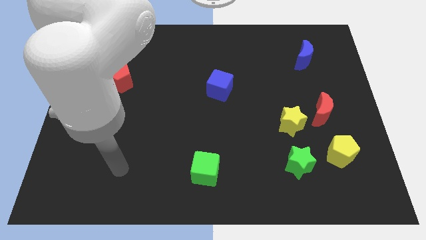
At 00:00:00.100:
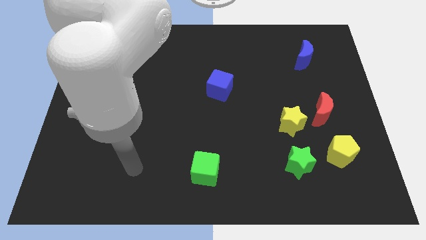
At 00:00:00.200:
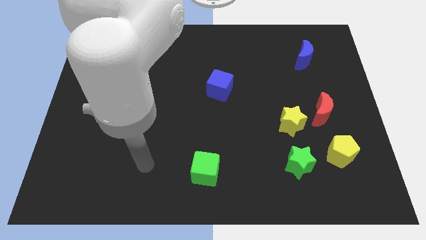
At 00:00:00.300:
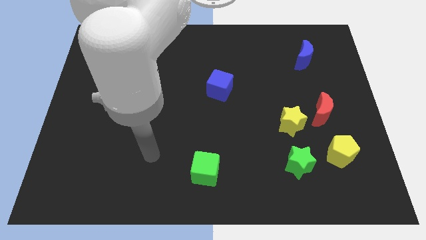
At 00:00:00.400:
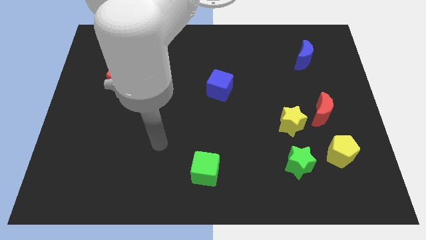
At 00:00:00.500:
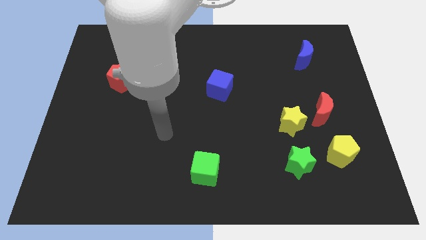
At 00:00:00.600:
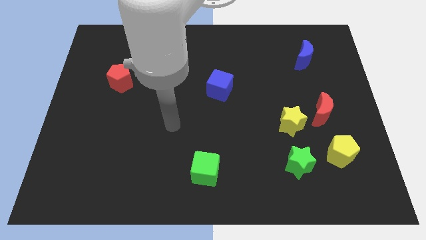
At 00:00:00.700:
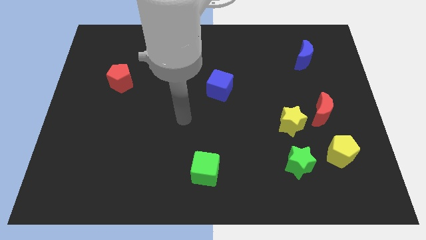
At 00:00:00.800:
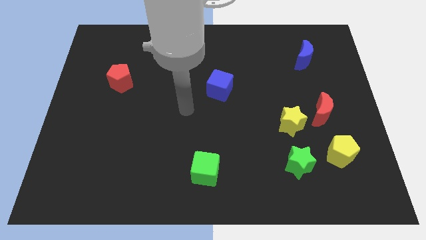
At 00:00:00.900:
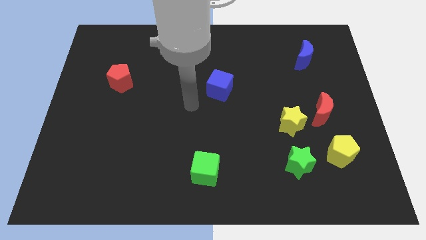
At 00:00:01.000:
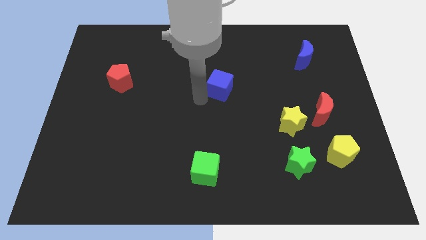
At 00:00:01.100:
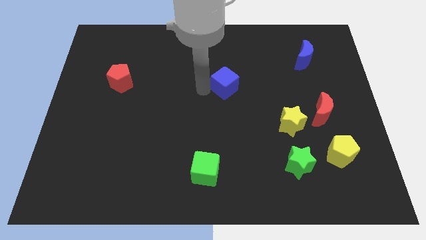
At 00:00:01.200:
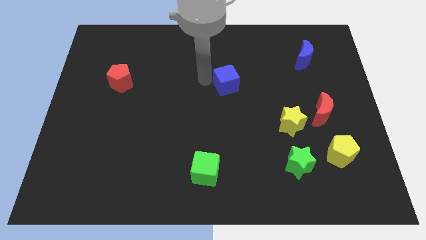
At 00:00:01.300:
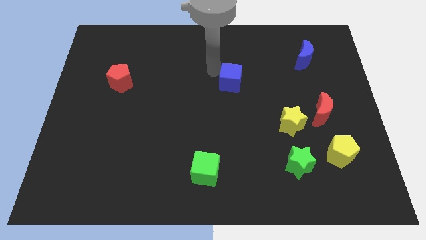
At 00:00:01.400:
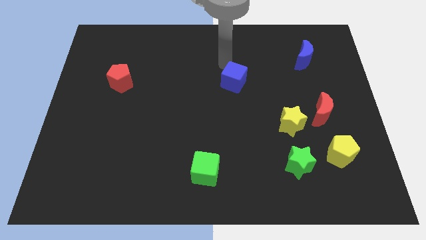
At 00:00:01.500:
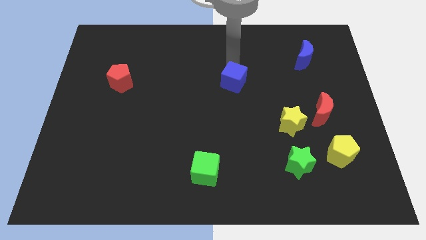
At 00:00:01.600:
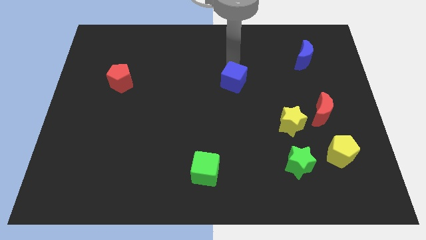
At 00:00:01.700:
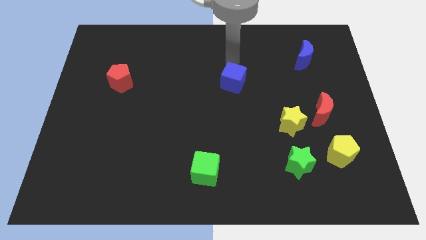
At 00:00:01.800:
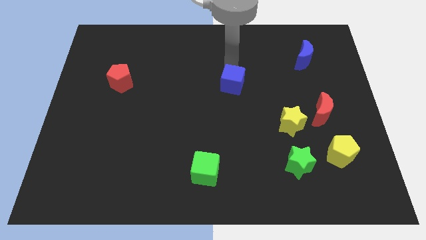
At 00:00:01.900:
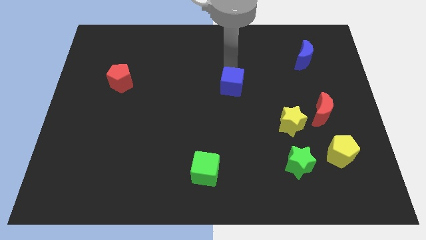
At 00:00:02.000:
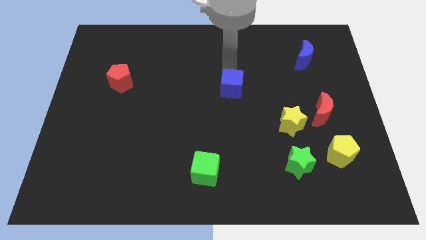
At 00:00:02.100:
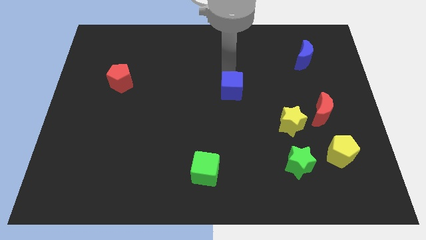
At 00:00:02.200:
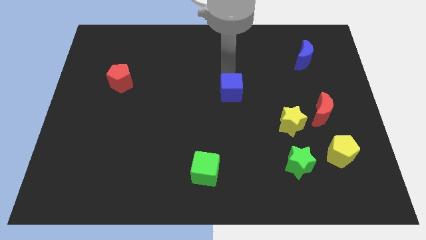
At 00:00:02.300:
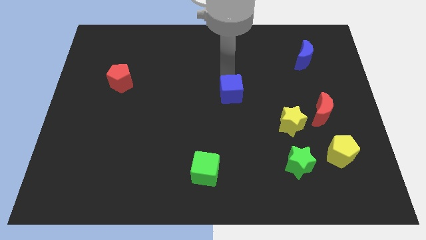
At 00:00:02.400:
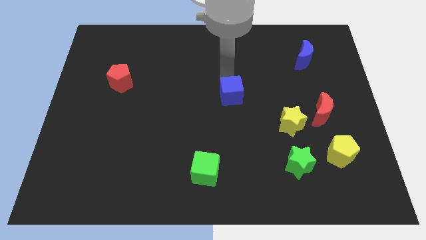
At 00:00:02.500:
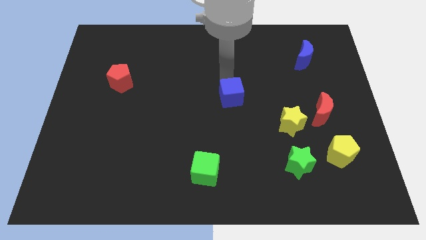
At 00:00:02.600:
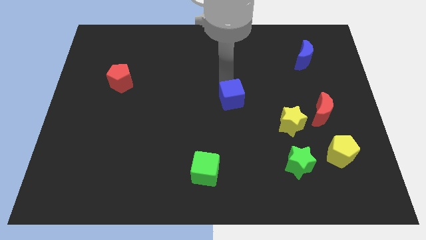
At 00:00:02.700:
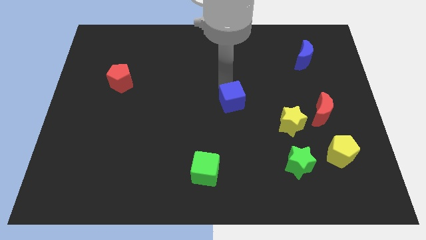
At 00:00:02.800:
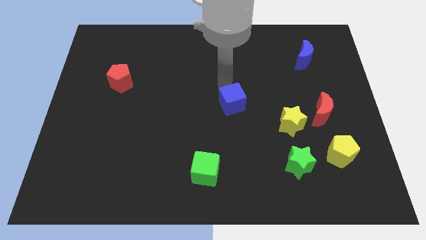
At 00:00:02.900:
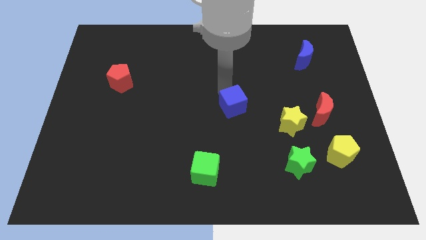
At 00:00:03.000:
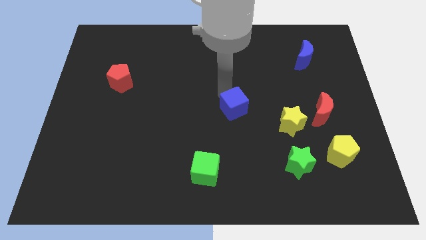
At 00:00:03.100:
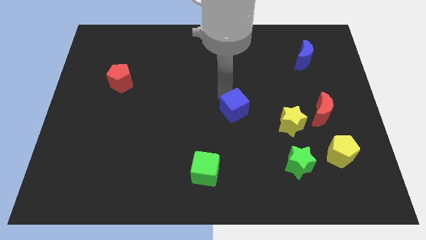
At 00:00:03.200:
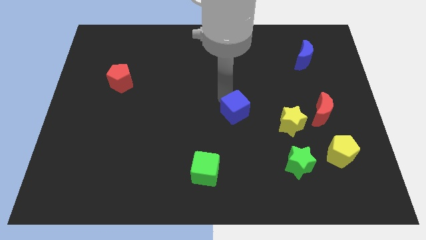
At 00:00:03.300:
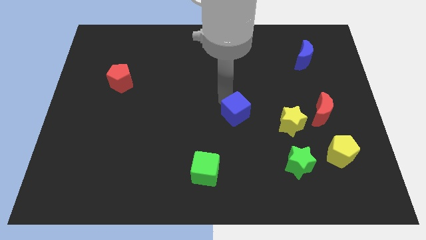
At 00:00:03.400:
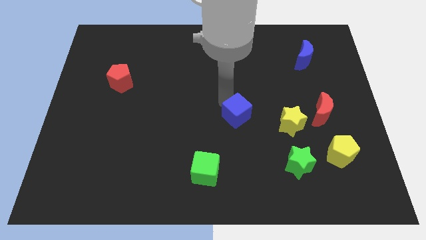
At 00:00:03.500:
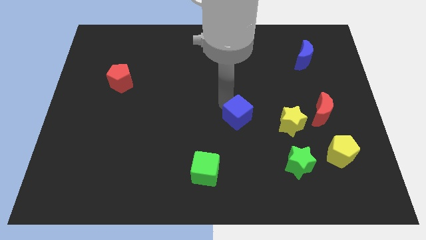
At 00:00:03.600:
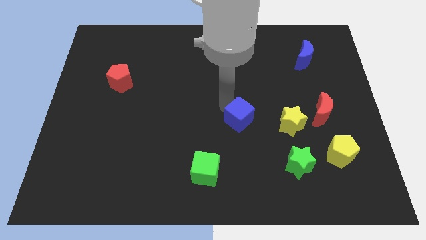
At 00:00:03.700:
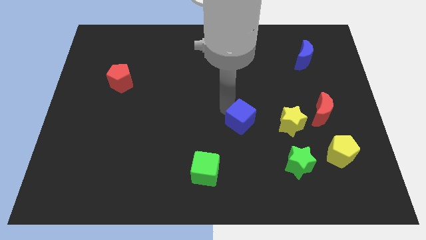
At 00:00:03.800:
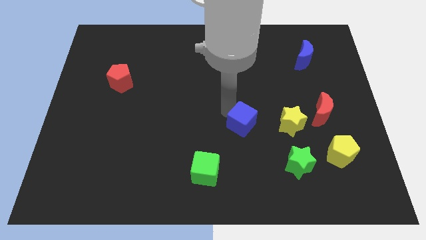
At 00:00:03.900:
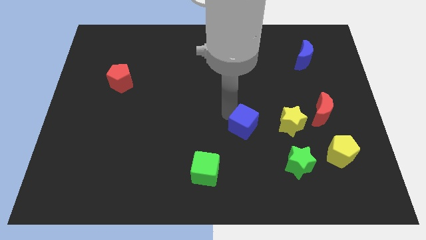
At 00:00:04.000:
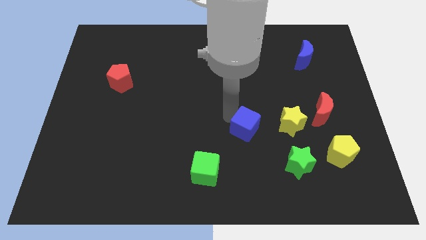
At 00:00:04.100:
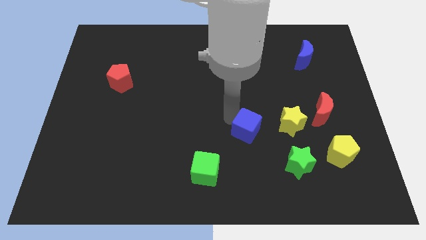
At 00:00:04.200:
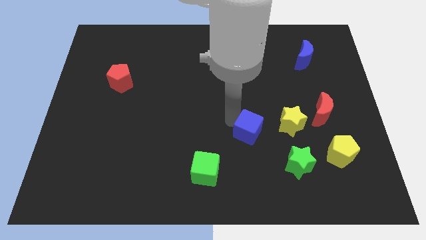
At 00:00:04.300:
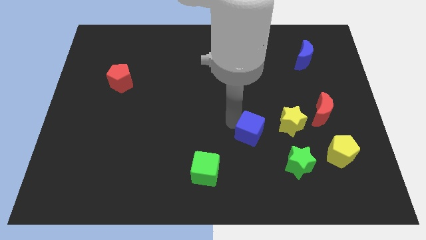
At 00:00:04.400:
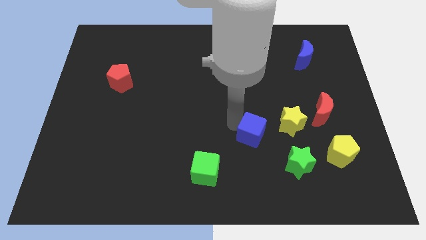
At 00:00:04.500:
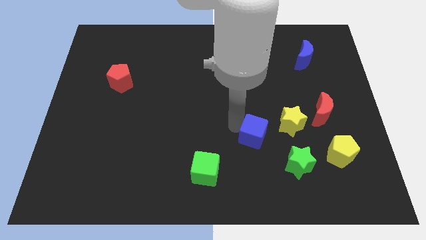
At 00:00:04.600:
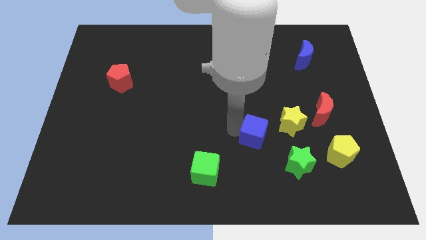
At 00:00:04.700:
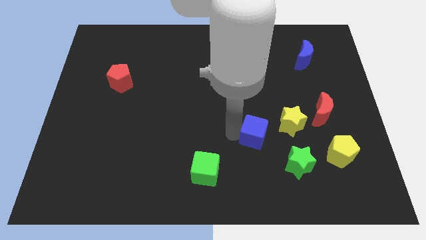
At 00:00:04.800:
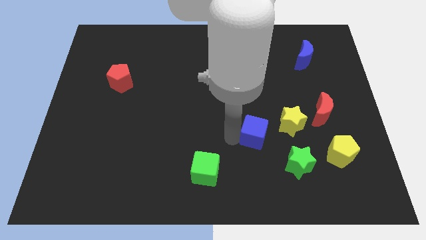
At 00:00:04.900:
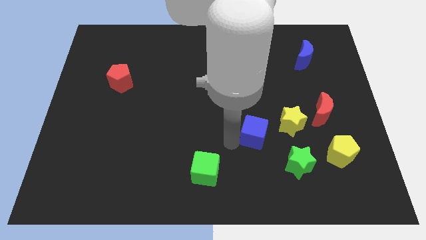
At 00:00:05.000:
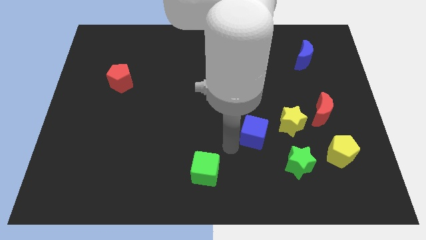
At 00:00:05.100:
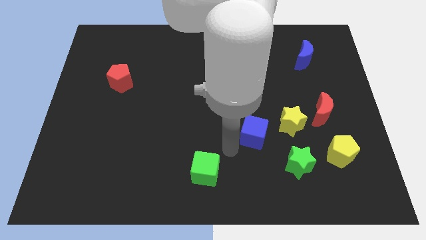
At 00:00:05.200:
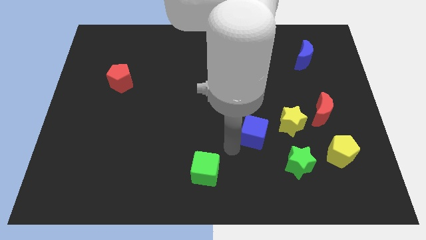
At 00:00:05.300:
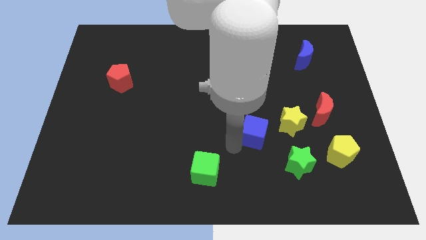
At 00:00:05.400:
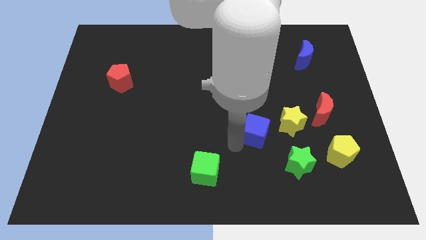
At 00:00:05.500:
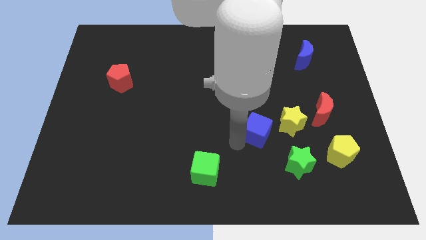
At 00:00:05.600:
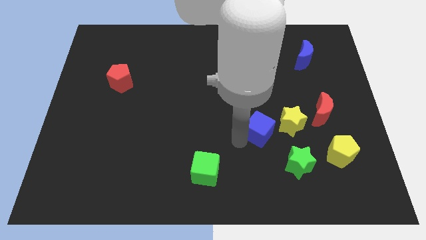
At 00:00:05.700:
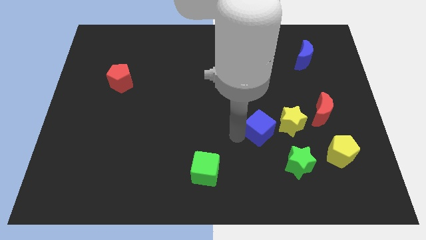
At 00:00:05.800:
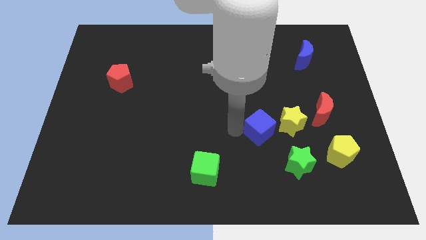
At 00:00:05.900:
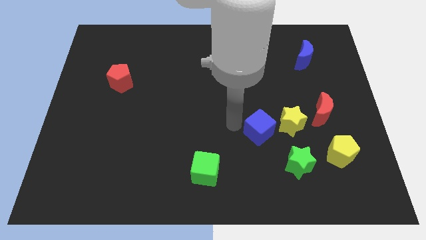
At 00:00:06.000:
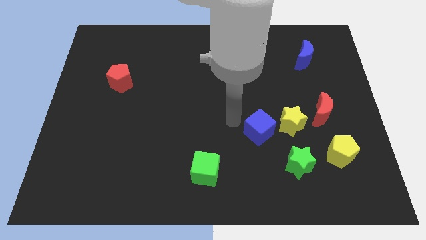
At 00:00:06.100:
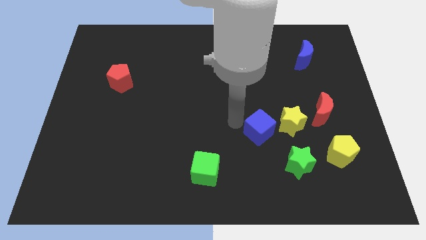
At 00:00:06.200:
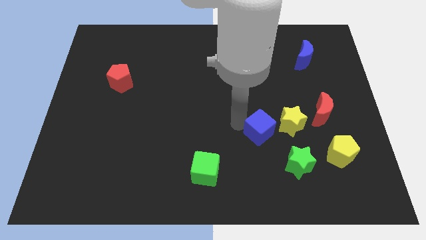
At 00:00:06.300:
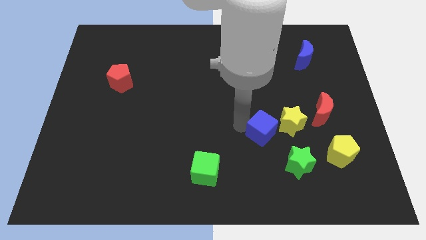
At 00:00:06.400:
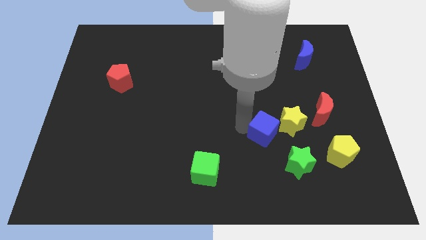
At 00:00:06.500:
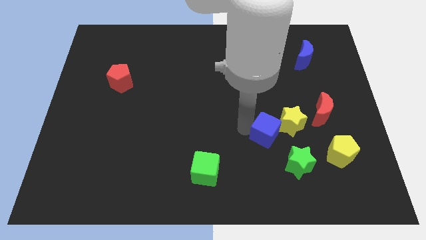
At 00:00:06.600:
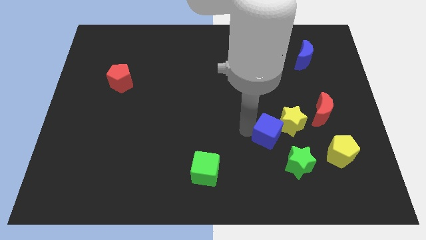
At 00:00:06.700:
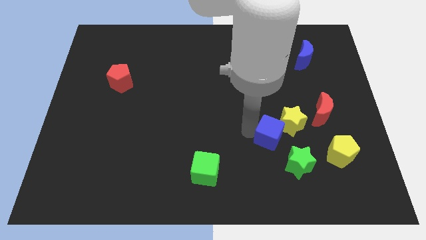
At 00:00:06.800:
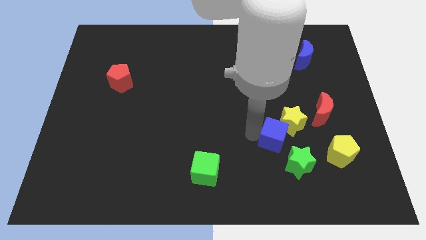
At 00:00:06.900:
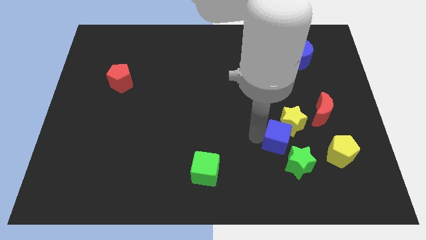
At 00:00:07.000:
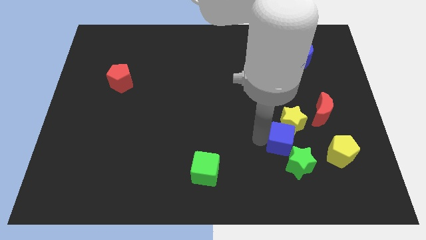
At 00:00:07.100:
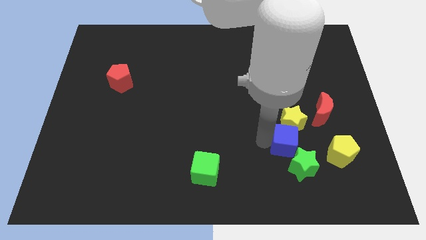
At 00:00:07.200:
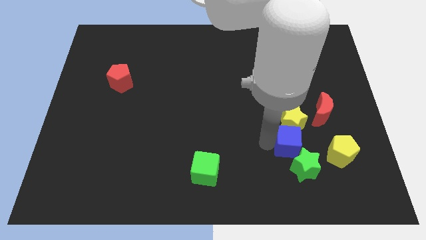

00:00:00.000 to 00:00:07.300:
slide the blue cube diagonally down and to the right of the yellow star

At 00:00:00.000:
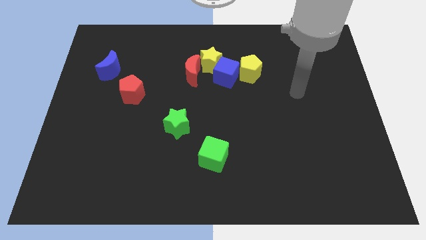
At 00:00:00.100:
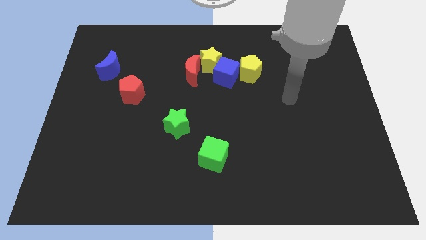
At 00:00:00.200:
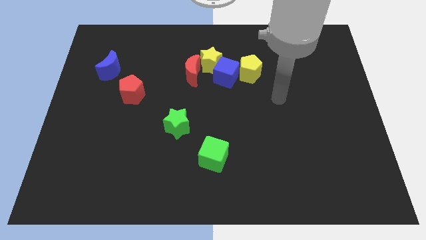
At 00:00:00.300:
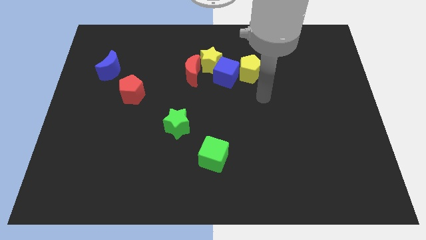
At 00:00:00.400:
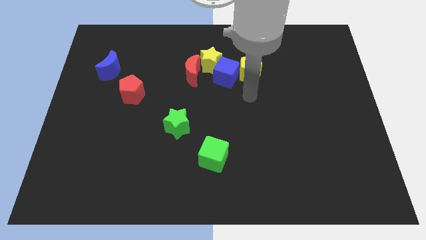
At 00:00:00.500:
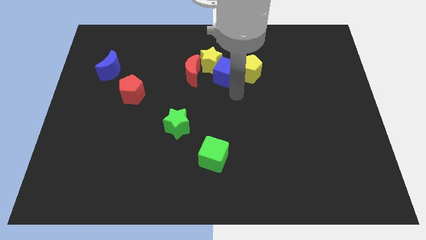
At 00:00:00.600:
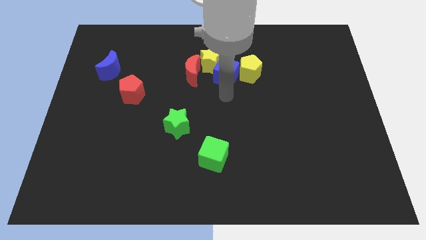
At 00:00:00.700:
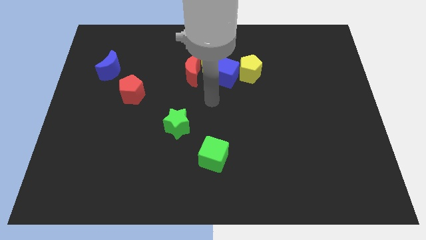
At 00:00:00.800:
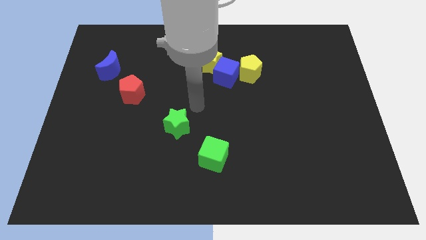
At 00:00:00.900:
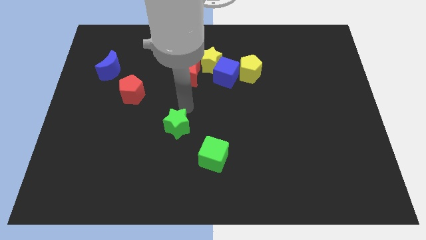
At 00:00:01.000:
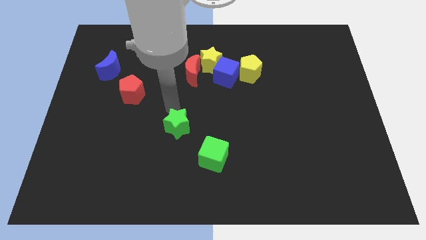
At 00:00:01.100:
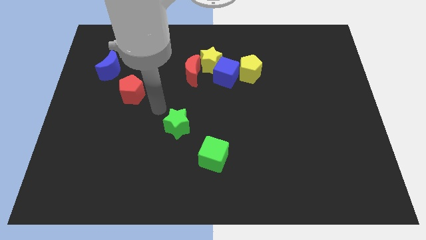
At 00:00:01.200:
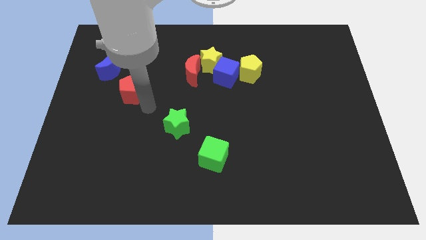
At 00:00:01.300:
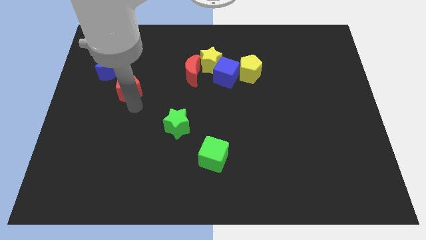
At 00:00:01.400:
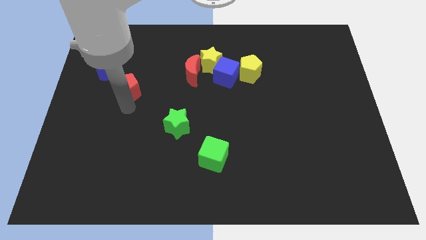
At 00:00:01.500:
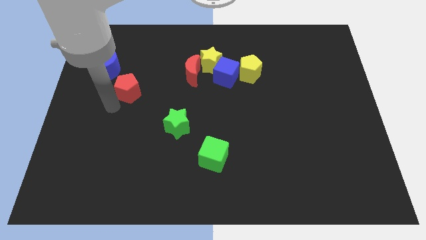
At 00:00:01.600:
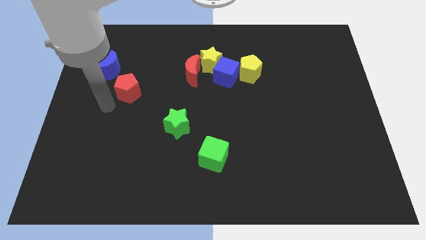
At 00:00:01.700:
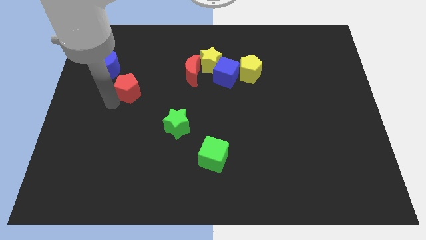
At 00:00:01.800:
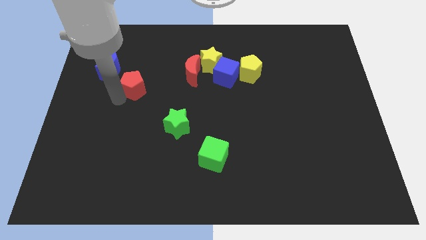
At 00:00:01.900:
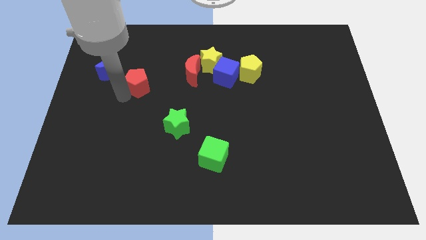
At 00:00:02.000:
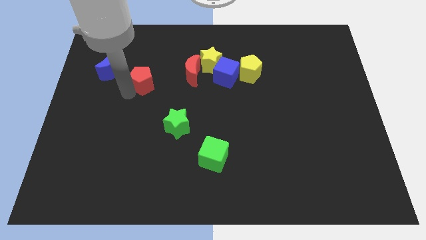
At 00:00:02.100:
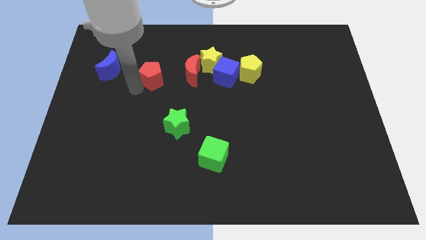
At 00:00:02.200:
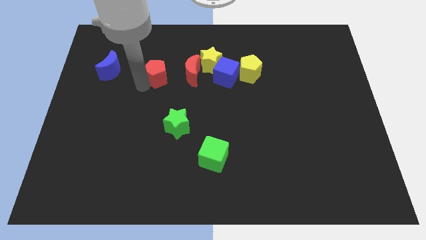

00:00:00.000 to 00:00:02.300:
move the red pentagon just left of the yellow star
